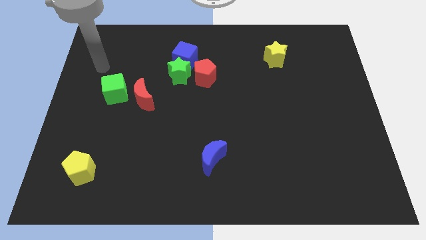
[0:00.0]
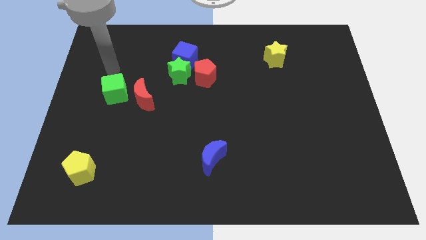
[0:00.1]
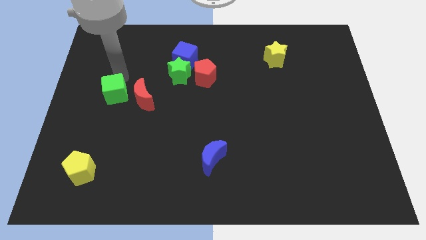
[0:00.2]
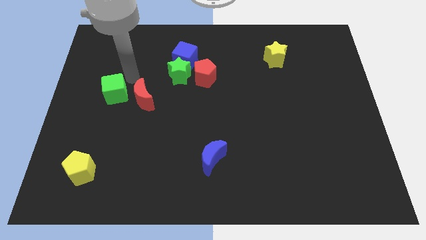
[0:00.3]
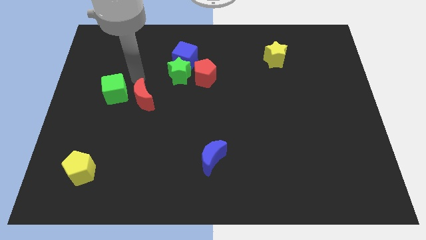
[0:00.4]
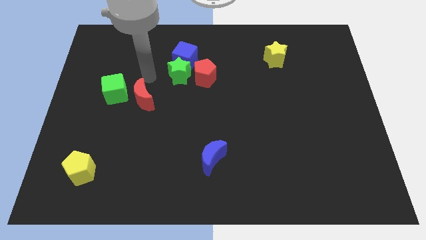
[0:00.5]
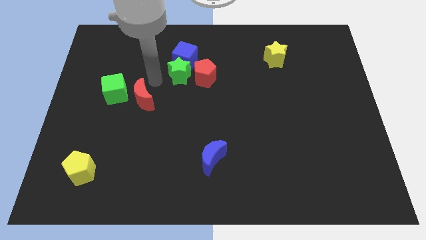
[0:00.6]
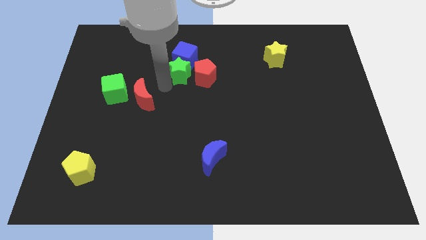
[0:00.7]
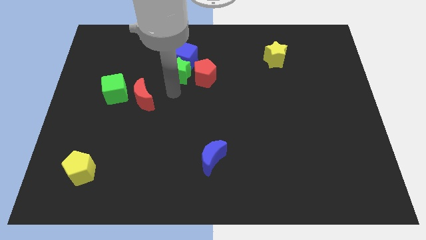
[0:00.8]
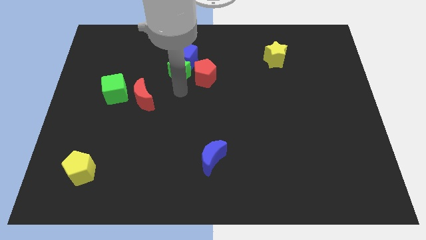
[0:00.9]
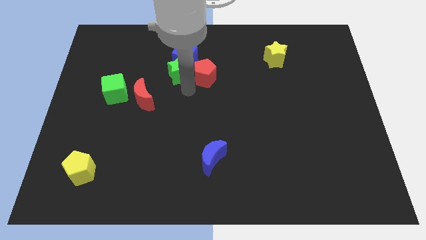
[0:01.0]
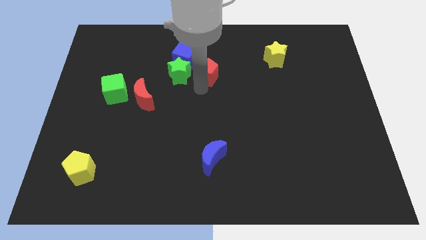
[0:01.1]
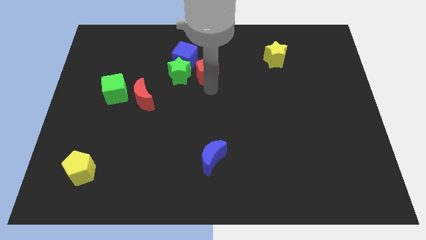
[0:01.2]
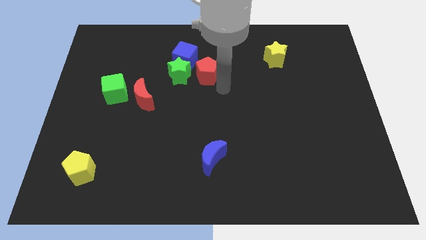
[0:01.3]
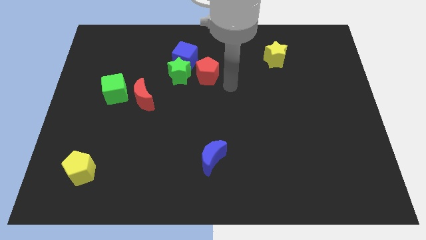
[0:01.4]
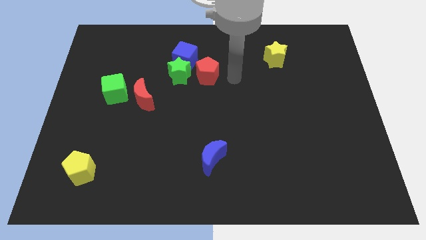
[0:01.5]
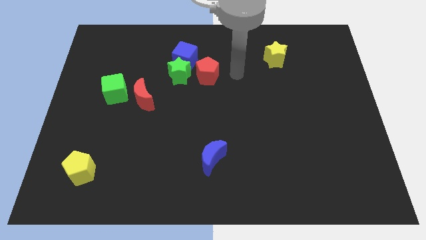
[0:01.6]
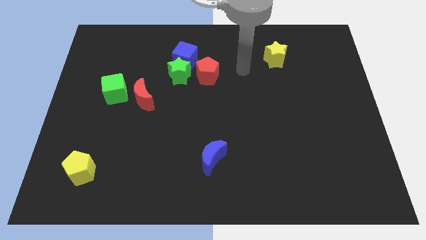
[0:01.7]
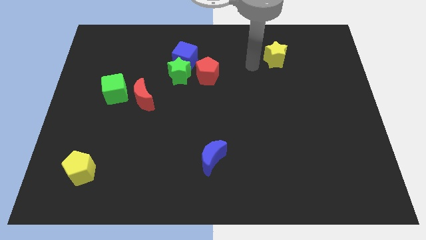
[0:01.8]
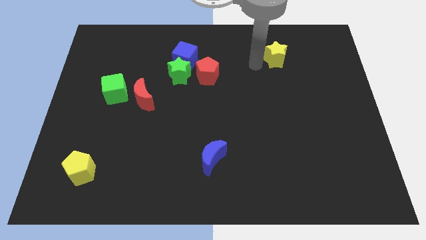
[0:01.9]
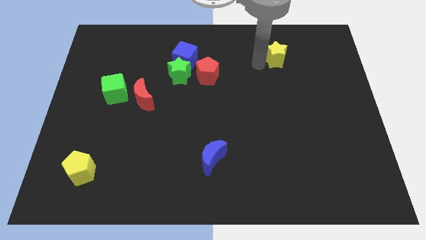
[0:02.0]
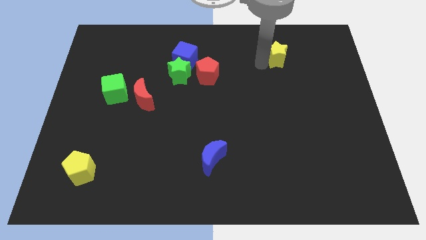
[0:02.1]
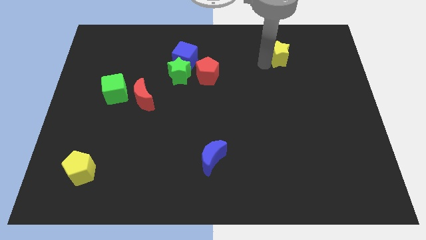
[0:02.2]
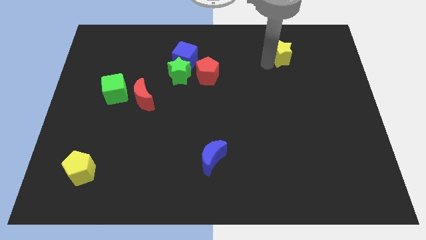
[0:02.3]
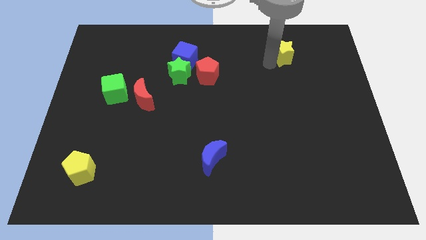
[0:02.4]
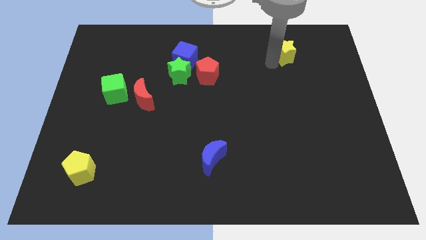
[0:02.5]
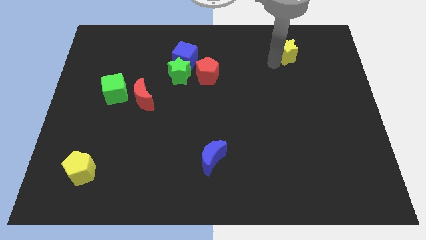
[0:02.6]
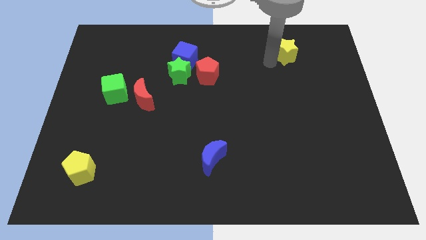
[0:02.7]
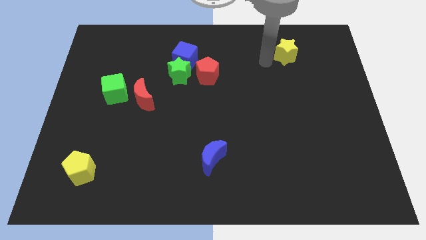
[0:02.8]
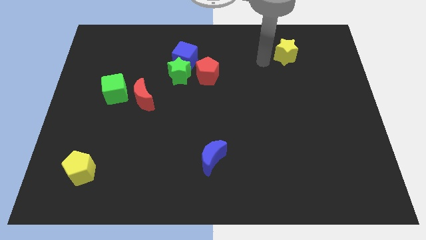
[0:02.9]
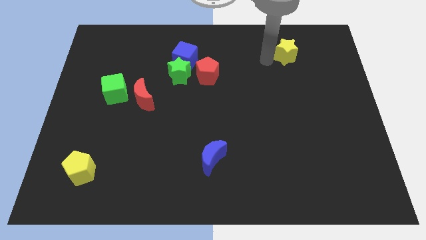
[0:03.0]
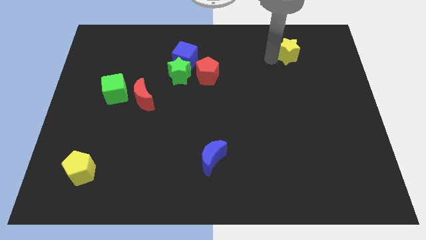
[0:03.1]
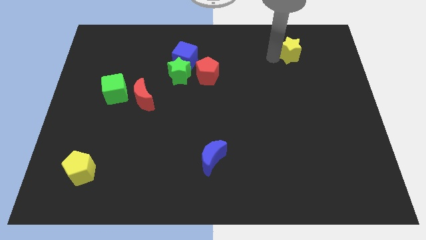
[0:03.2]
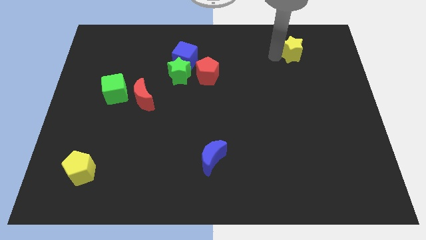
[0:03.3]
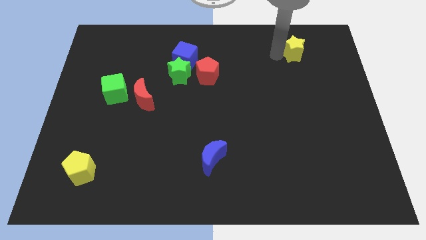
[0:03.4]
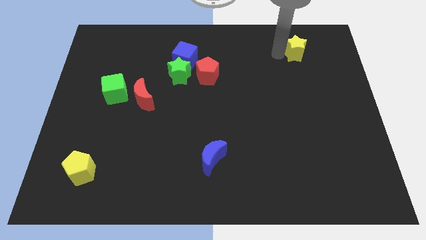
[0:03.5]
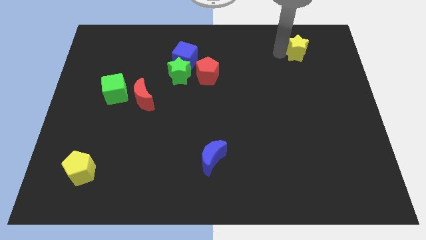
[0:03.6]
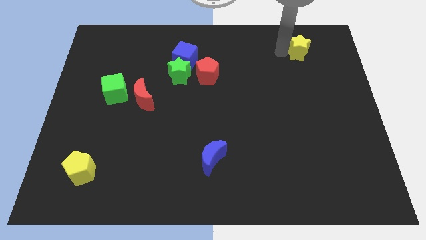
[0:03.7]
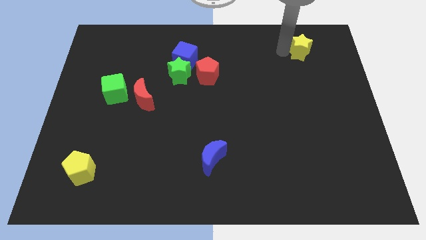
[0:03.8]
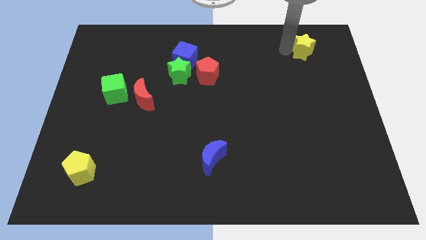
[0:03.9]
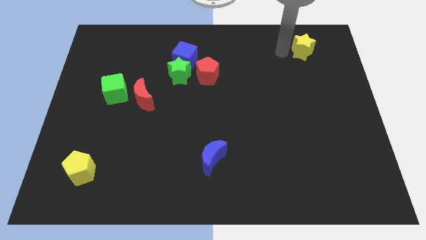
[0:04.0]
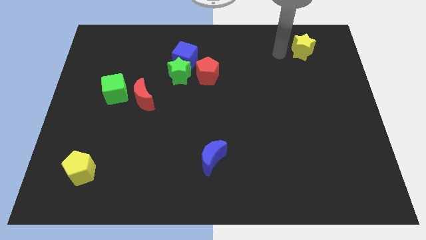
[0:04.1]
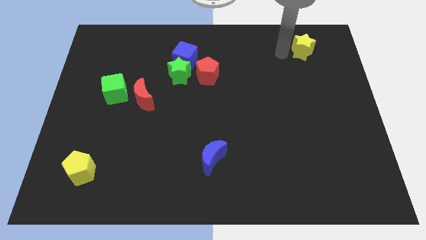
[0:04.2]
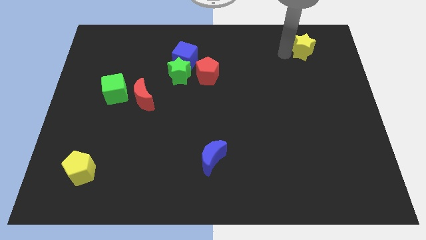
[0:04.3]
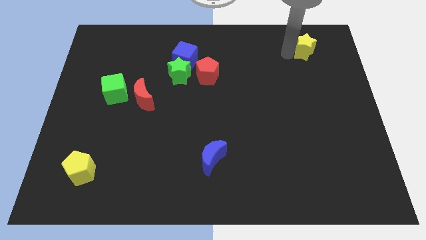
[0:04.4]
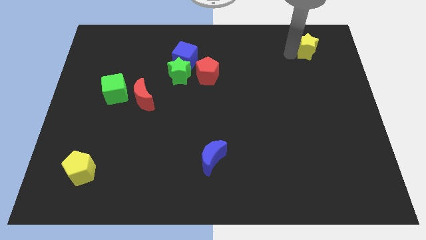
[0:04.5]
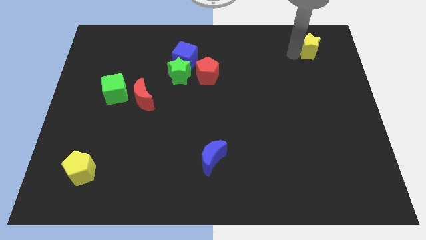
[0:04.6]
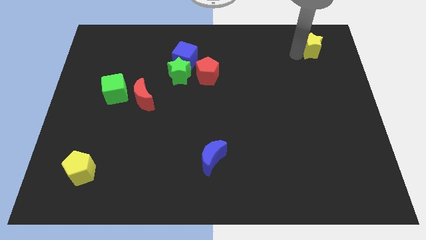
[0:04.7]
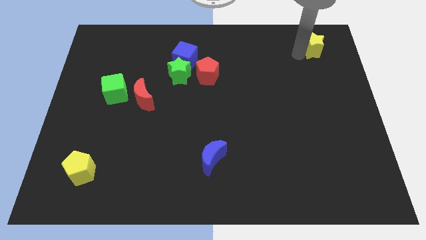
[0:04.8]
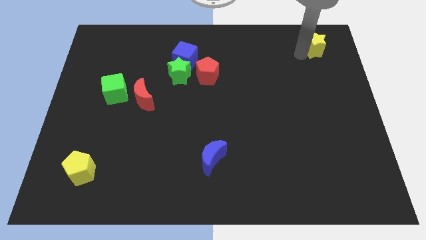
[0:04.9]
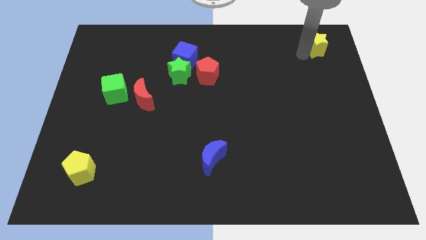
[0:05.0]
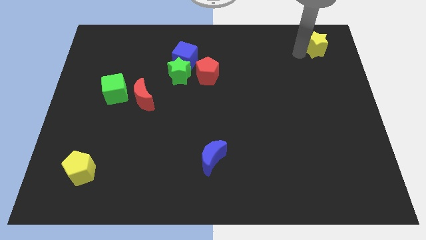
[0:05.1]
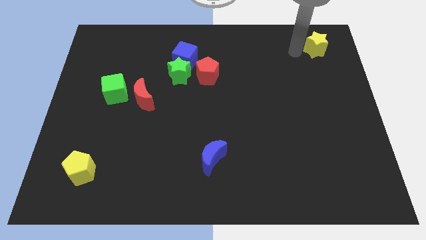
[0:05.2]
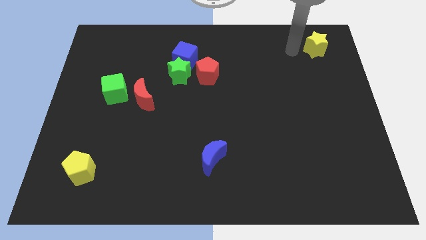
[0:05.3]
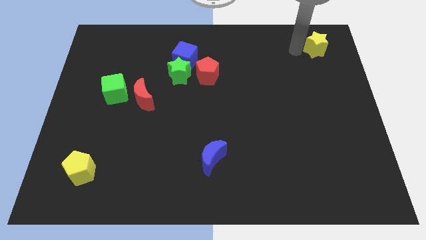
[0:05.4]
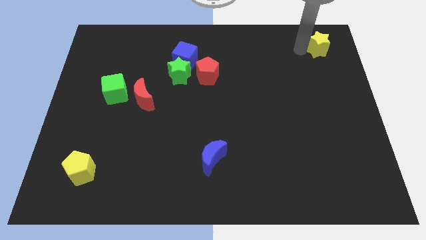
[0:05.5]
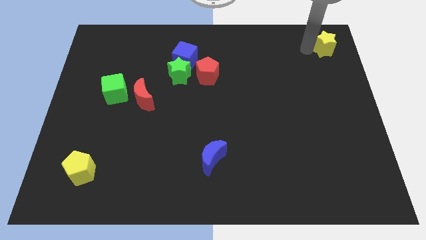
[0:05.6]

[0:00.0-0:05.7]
put the yellow star to the top right corner
